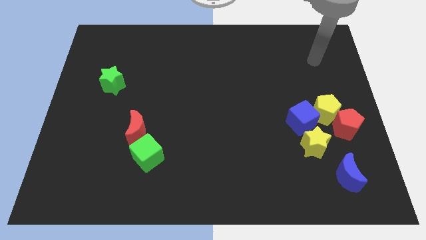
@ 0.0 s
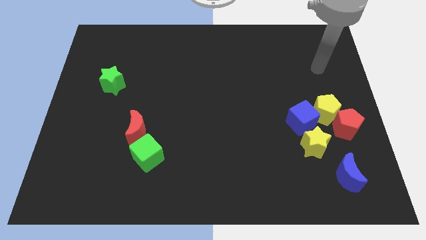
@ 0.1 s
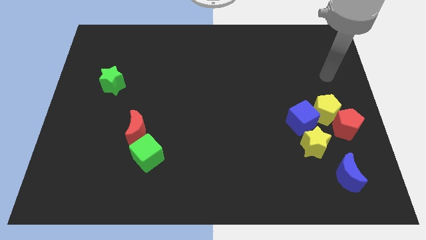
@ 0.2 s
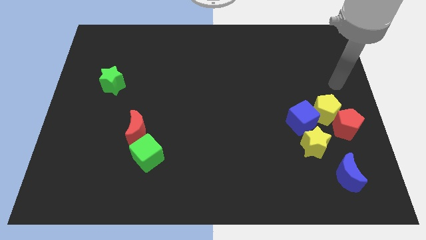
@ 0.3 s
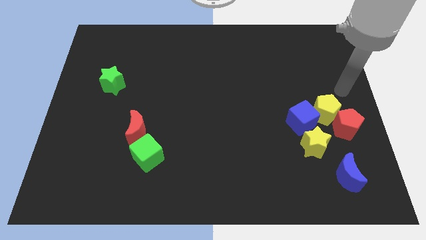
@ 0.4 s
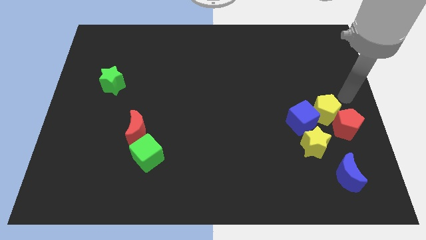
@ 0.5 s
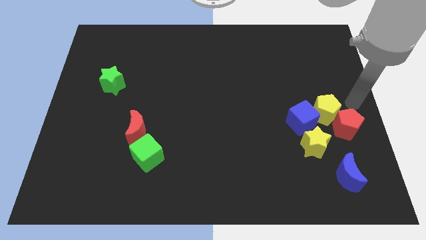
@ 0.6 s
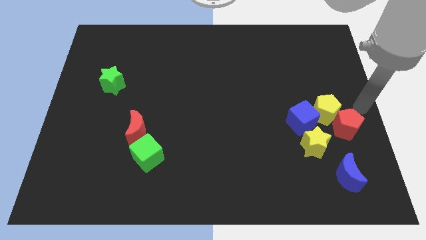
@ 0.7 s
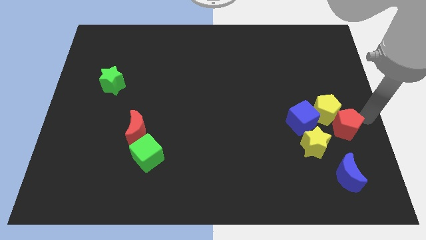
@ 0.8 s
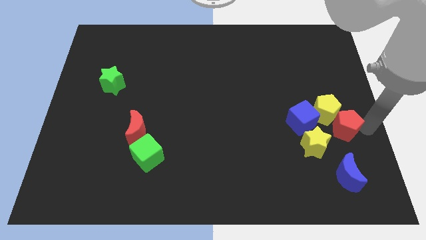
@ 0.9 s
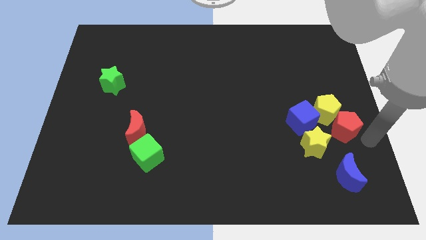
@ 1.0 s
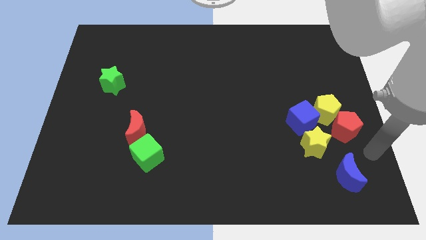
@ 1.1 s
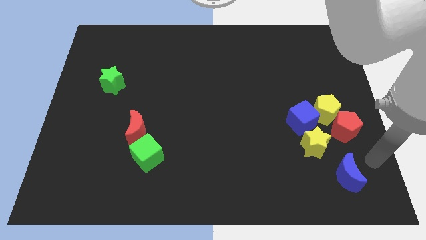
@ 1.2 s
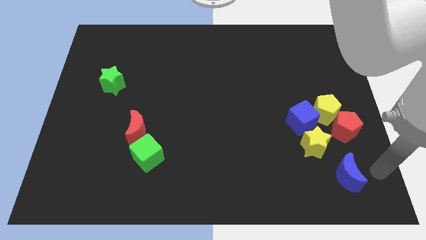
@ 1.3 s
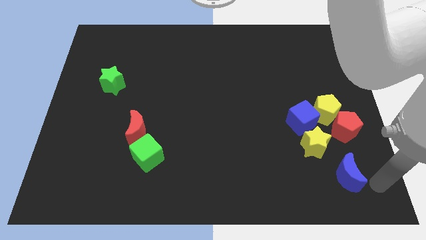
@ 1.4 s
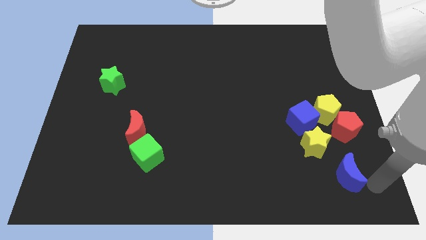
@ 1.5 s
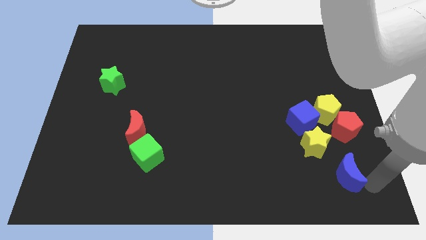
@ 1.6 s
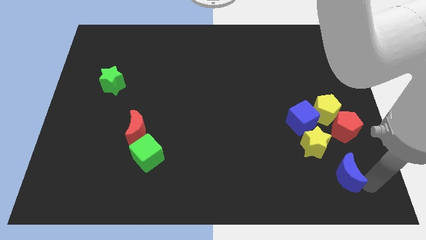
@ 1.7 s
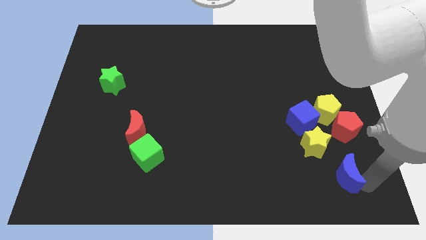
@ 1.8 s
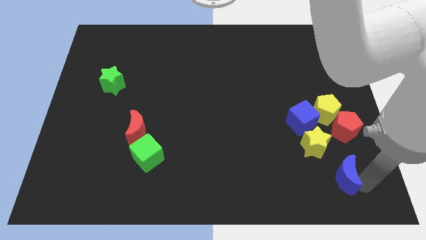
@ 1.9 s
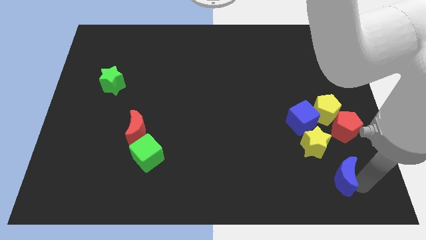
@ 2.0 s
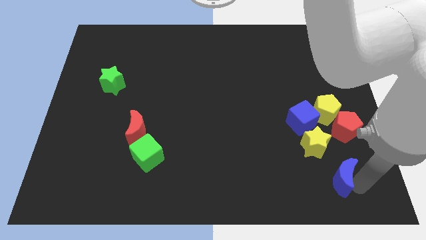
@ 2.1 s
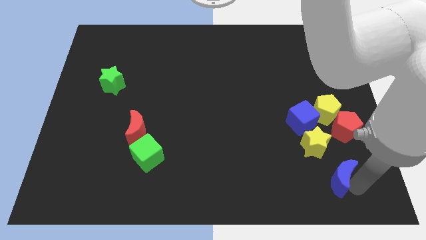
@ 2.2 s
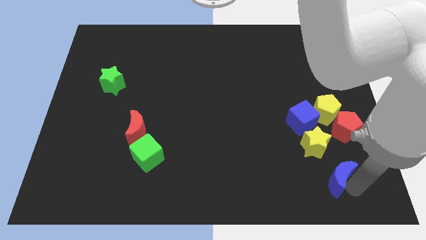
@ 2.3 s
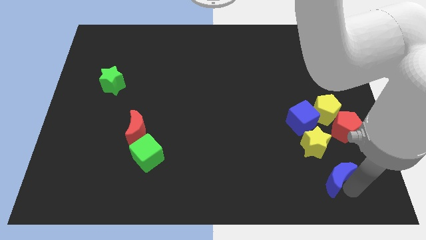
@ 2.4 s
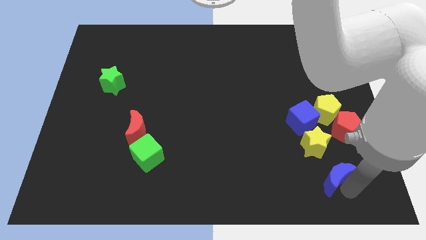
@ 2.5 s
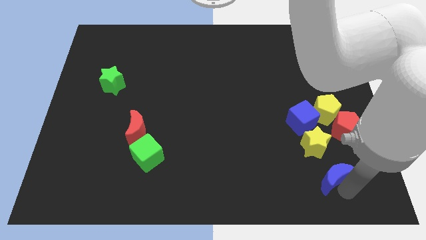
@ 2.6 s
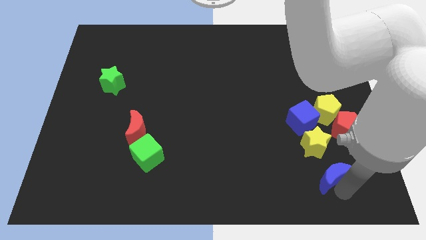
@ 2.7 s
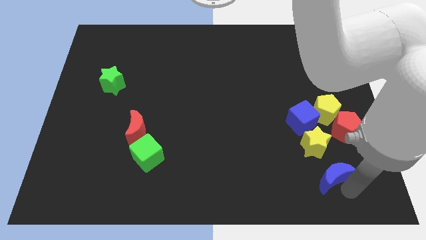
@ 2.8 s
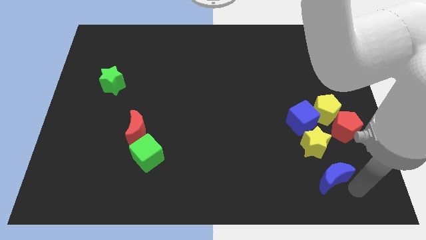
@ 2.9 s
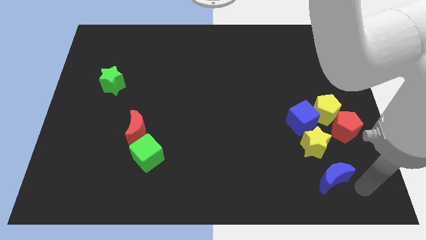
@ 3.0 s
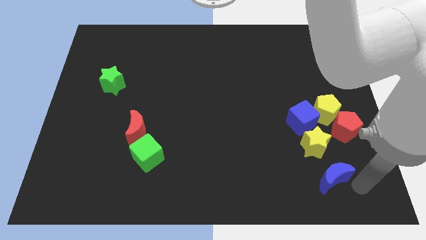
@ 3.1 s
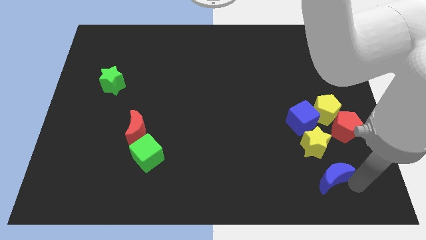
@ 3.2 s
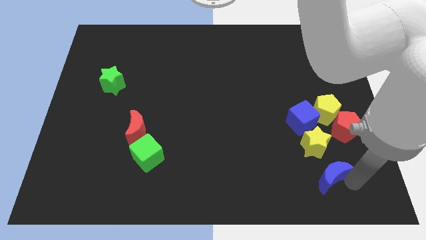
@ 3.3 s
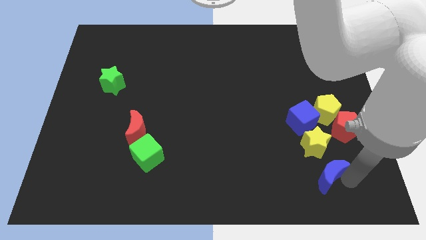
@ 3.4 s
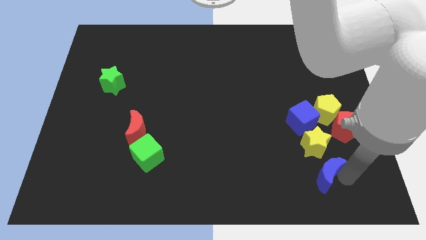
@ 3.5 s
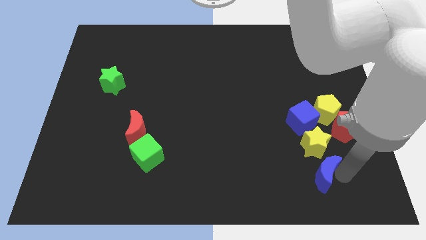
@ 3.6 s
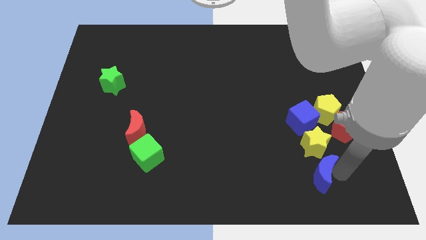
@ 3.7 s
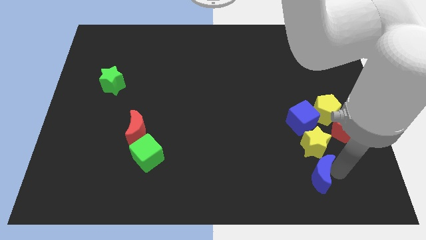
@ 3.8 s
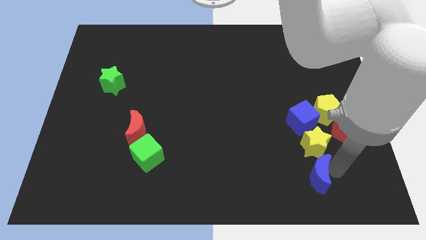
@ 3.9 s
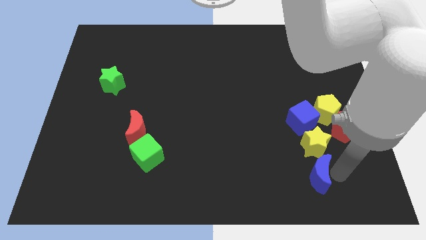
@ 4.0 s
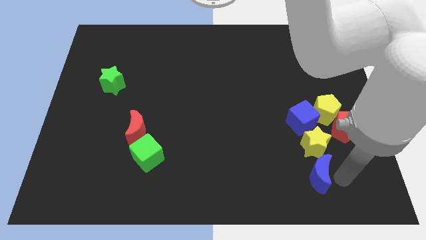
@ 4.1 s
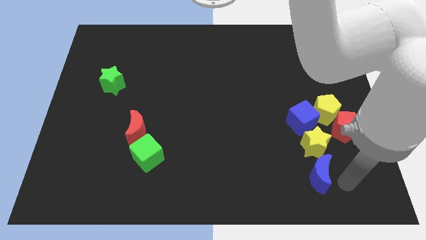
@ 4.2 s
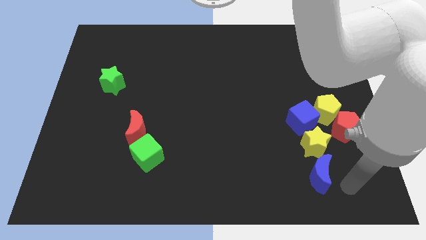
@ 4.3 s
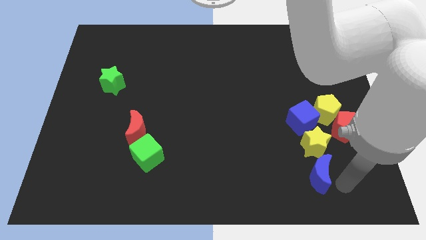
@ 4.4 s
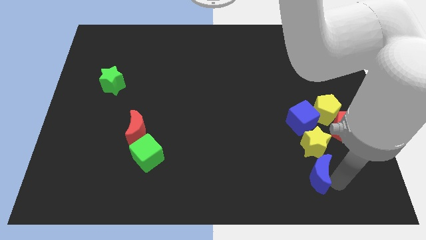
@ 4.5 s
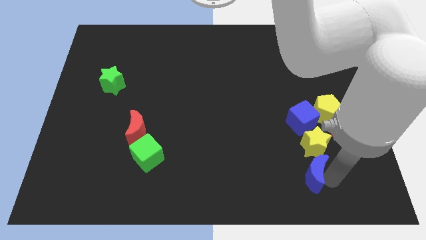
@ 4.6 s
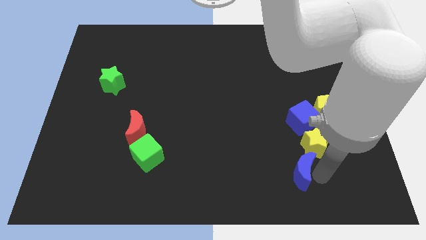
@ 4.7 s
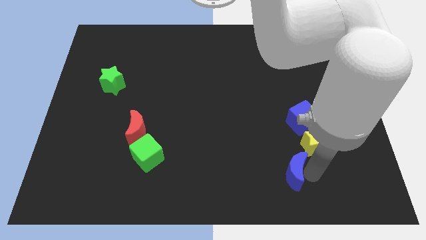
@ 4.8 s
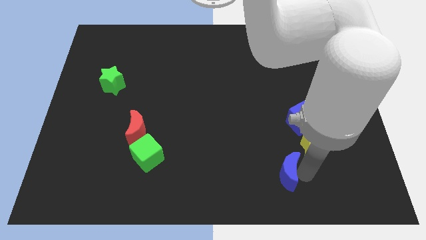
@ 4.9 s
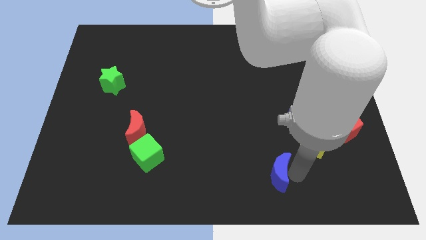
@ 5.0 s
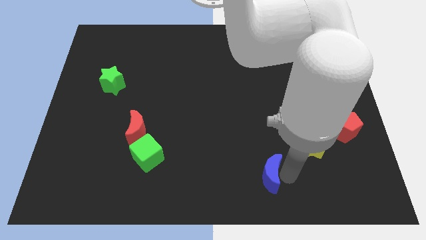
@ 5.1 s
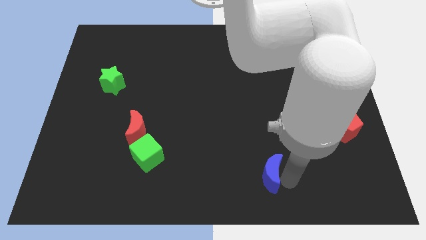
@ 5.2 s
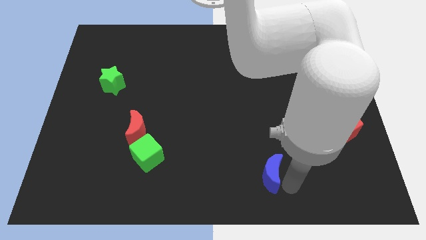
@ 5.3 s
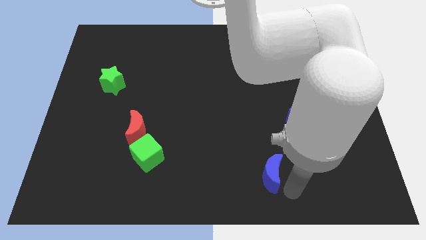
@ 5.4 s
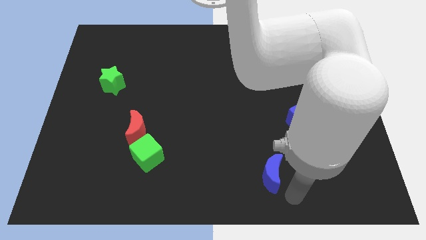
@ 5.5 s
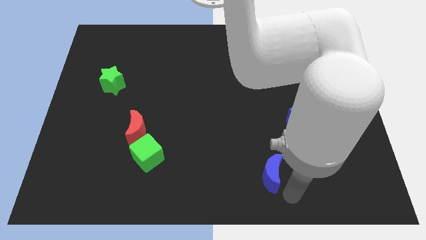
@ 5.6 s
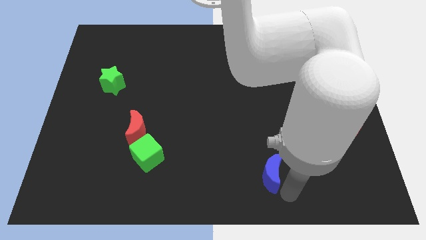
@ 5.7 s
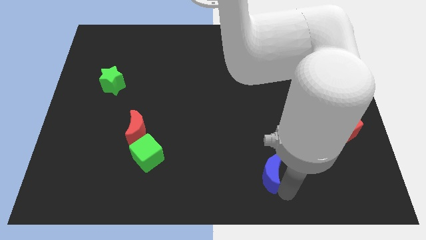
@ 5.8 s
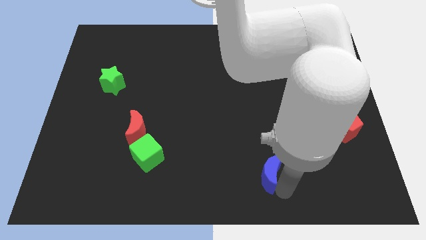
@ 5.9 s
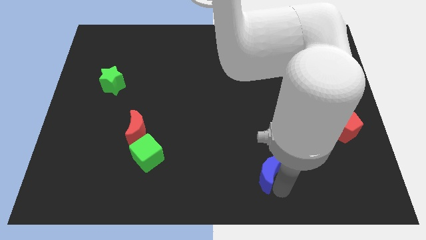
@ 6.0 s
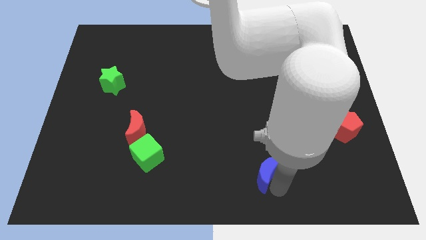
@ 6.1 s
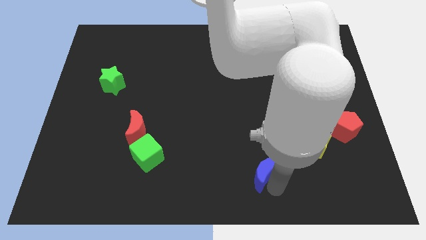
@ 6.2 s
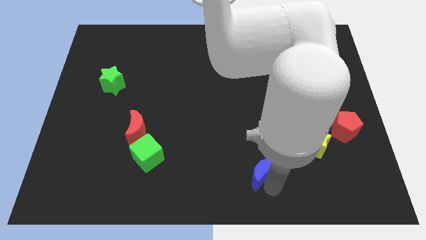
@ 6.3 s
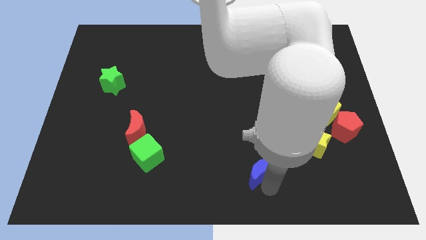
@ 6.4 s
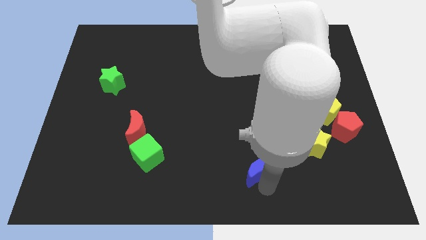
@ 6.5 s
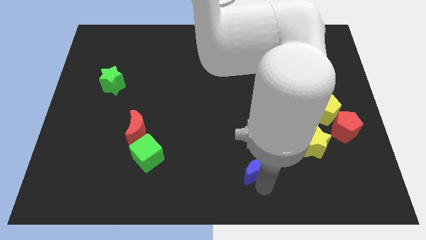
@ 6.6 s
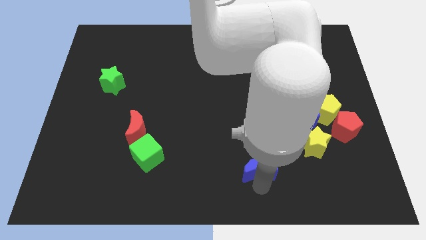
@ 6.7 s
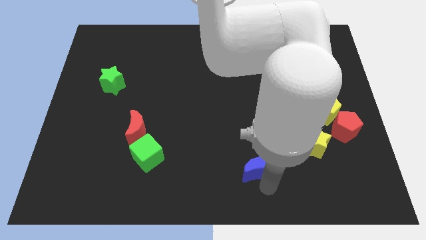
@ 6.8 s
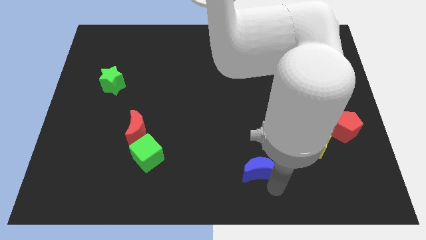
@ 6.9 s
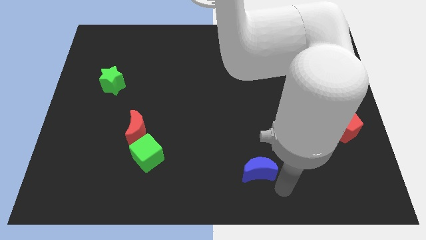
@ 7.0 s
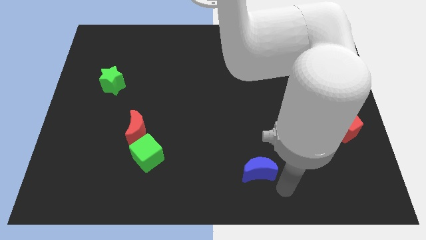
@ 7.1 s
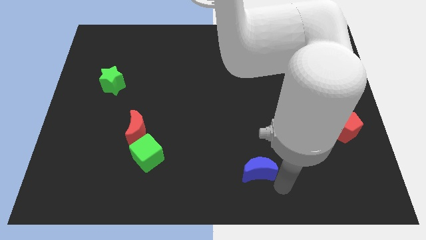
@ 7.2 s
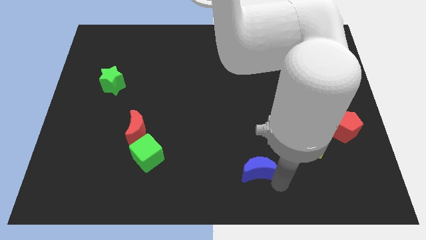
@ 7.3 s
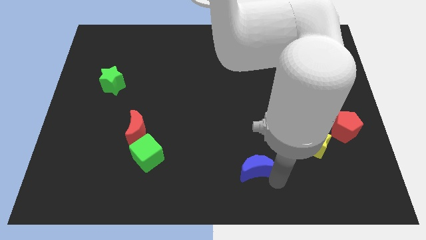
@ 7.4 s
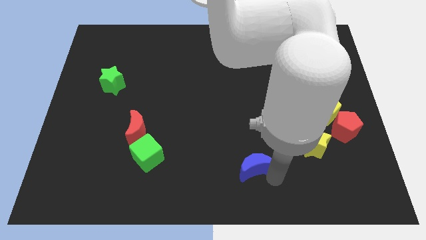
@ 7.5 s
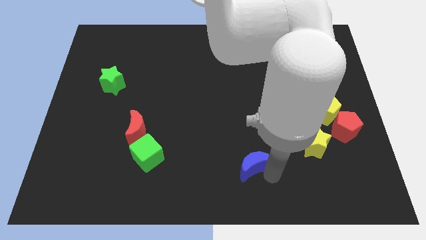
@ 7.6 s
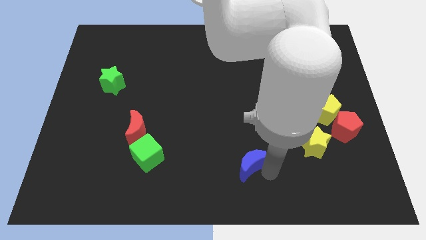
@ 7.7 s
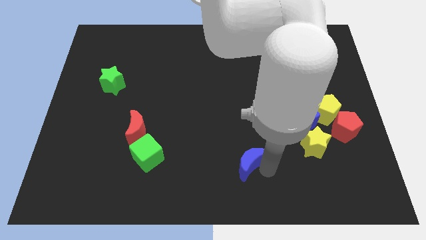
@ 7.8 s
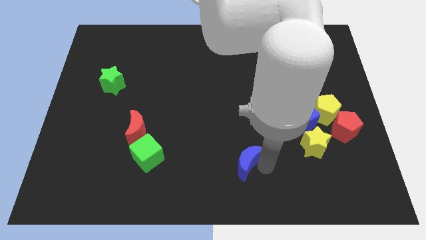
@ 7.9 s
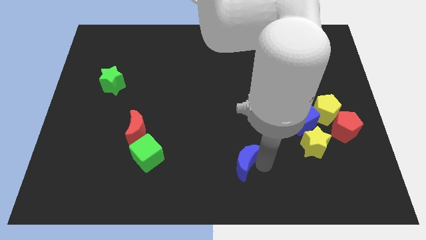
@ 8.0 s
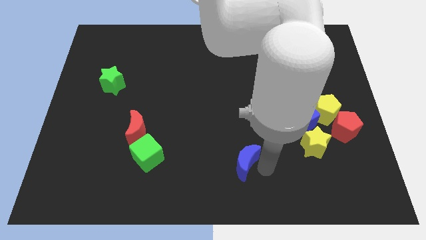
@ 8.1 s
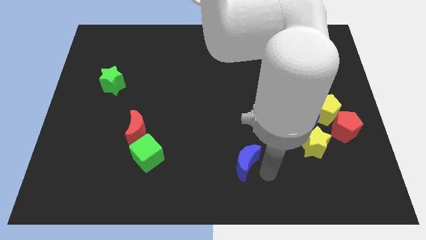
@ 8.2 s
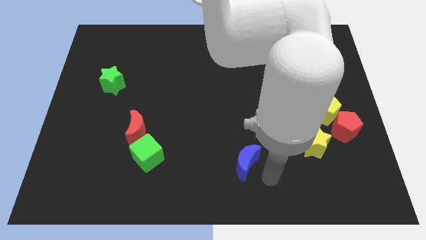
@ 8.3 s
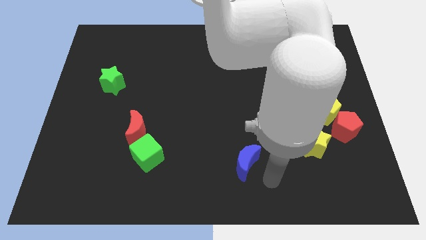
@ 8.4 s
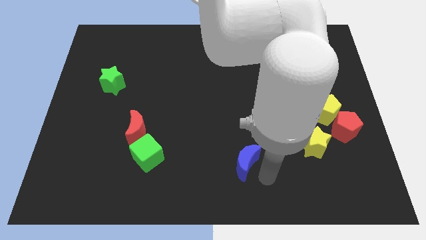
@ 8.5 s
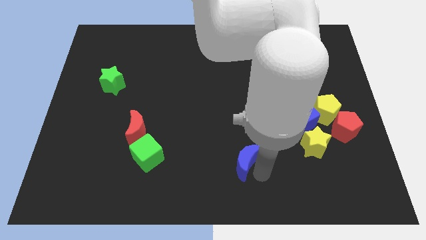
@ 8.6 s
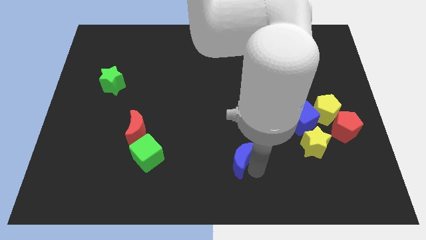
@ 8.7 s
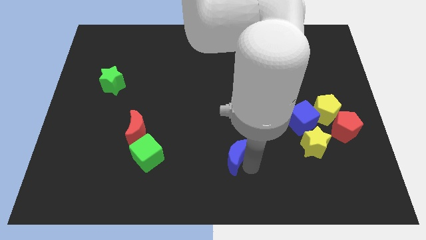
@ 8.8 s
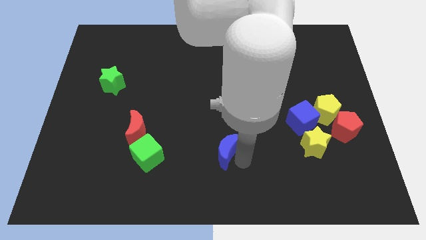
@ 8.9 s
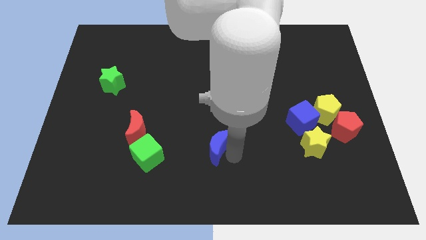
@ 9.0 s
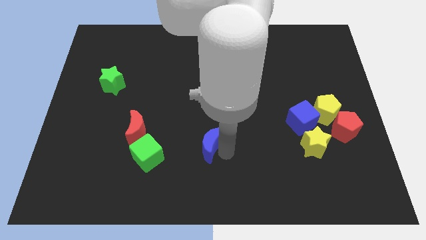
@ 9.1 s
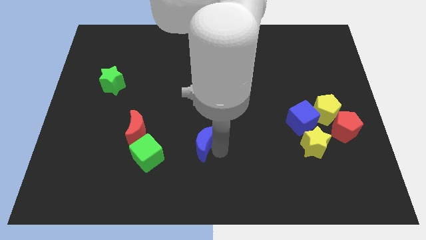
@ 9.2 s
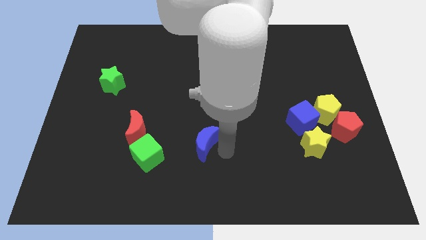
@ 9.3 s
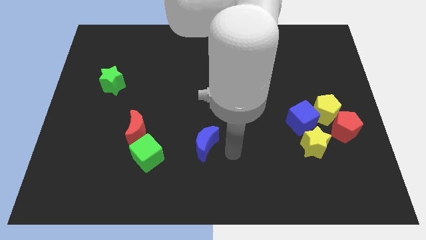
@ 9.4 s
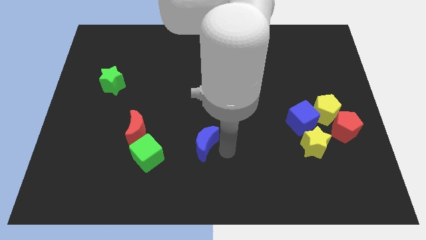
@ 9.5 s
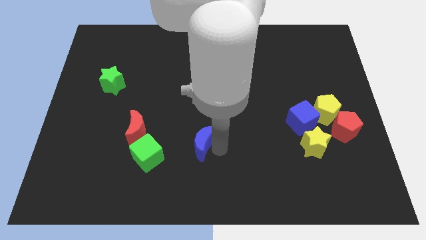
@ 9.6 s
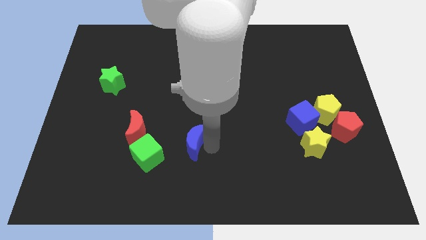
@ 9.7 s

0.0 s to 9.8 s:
move the blue moon to the top right of the green cube
